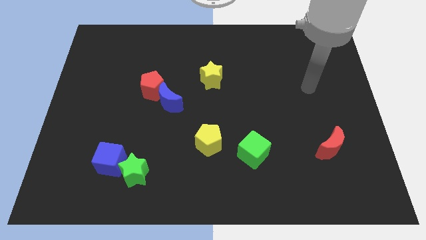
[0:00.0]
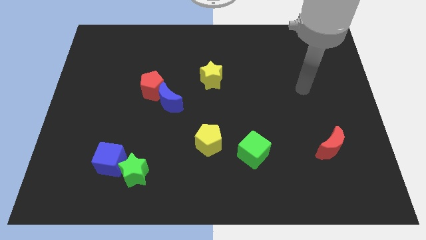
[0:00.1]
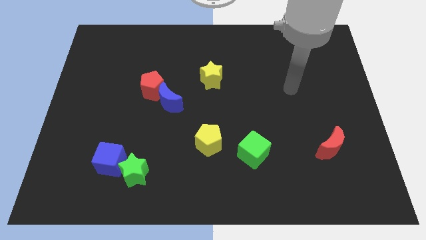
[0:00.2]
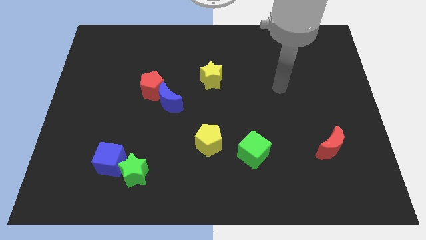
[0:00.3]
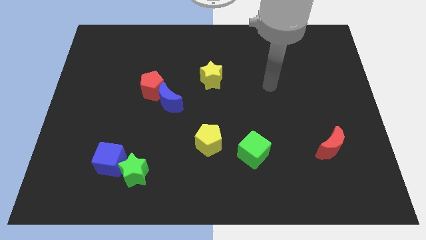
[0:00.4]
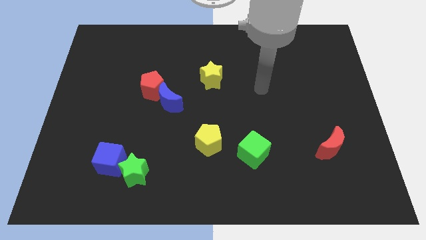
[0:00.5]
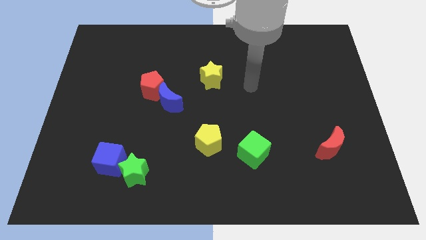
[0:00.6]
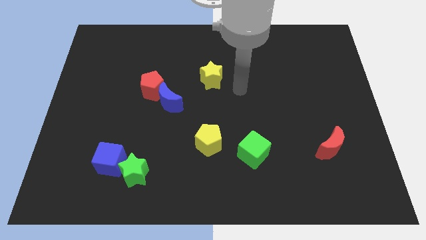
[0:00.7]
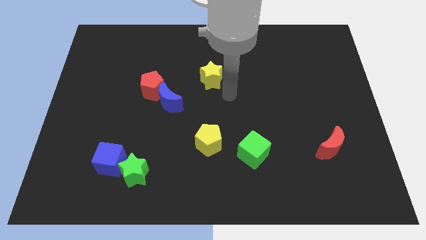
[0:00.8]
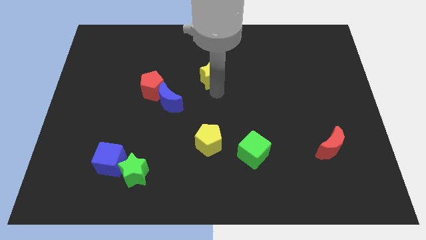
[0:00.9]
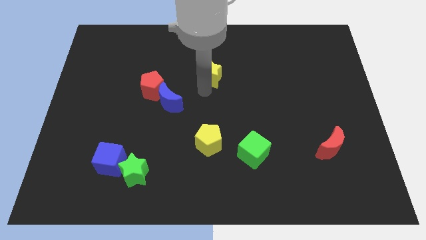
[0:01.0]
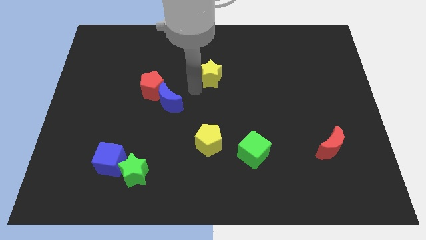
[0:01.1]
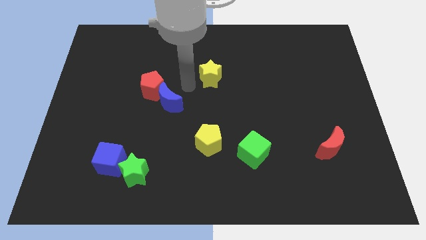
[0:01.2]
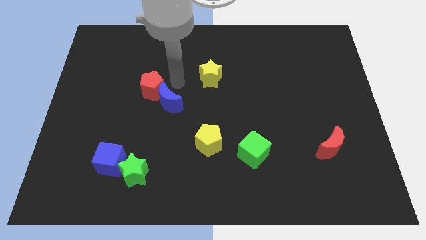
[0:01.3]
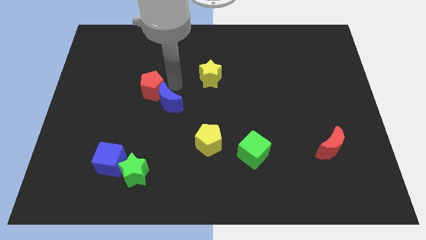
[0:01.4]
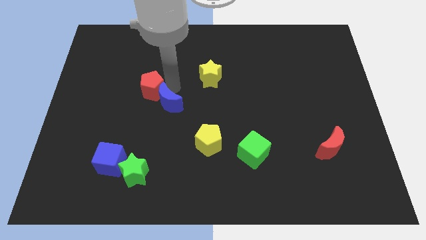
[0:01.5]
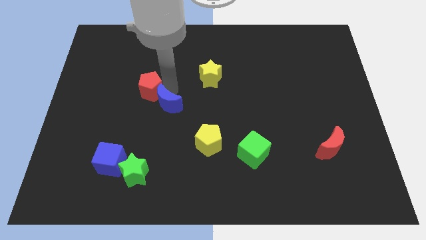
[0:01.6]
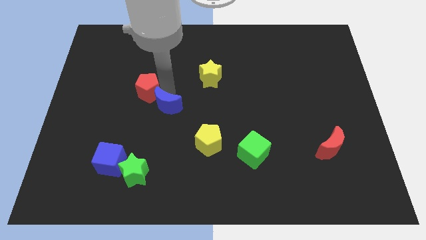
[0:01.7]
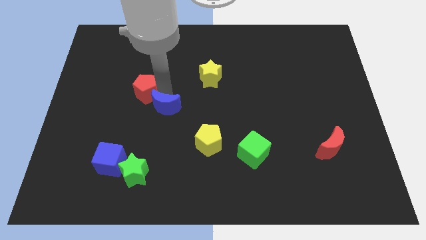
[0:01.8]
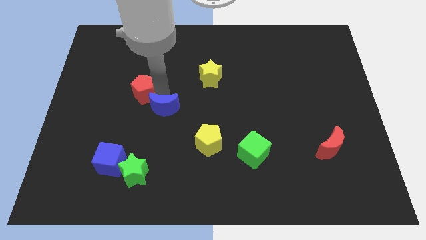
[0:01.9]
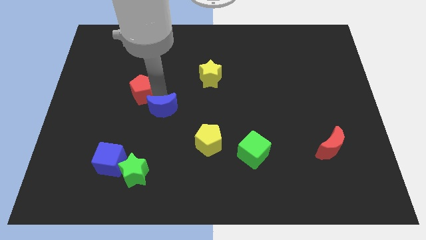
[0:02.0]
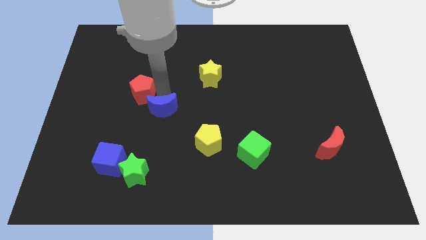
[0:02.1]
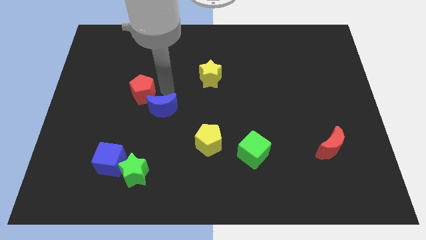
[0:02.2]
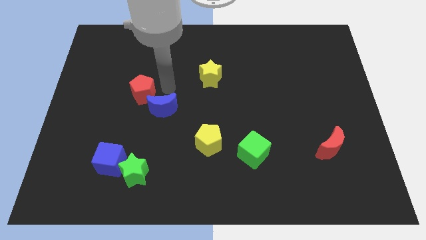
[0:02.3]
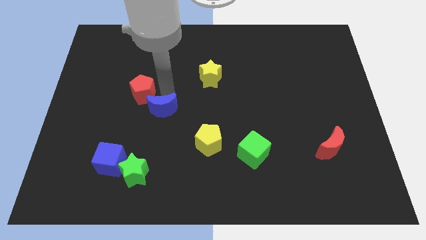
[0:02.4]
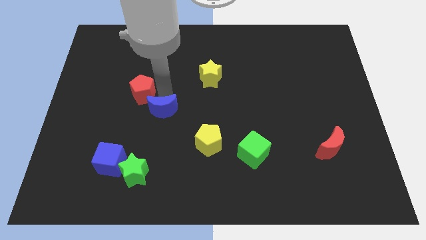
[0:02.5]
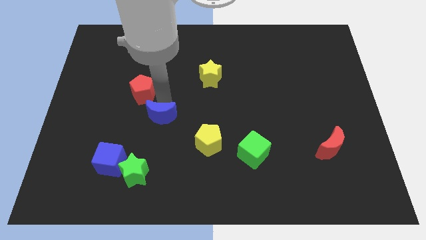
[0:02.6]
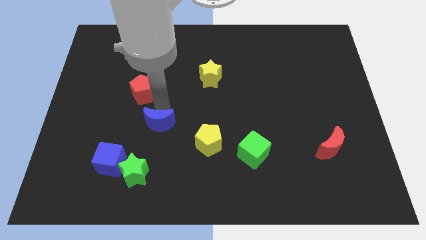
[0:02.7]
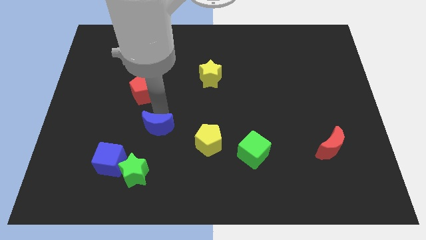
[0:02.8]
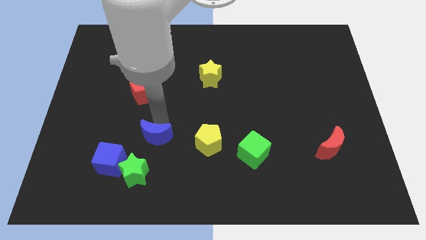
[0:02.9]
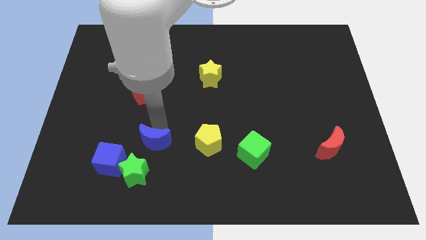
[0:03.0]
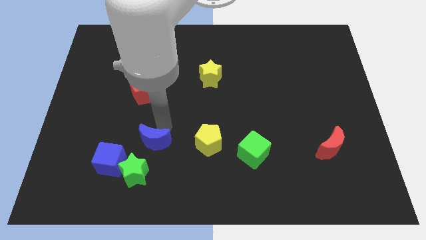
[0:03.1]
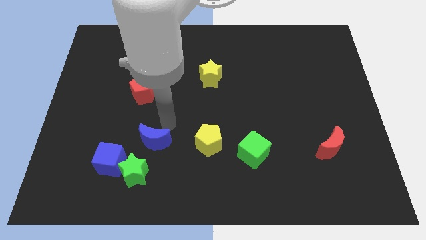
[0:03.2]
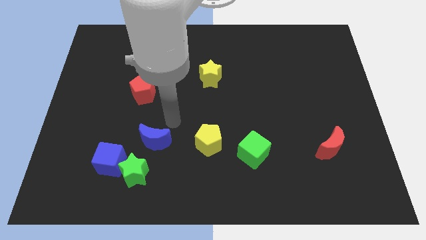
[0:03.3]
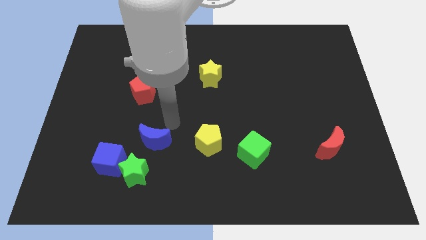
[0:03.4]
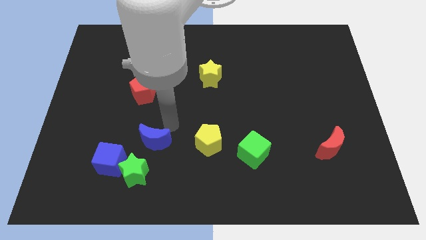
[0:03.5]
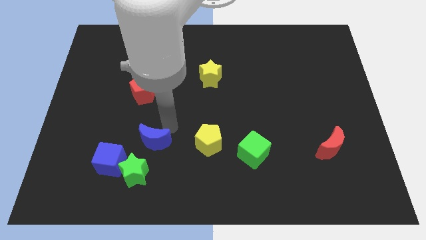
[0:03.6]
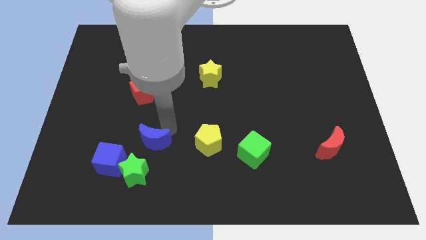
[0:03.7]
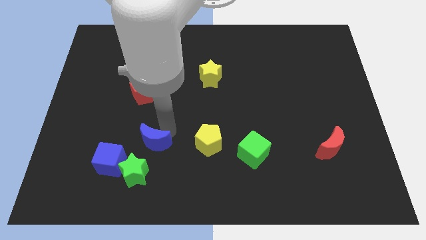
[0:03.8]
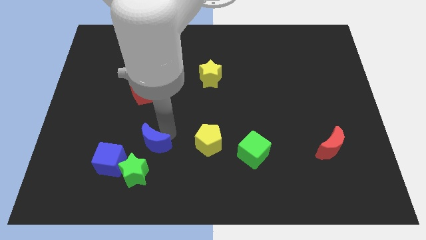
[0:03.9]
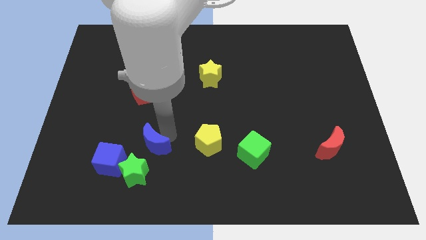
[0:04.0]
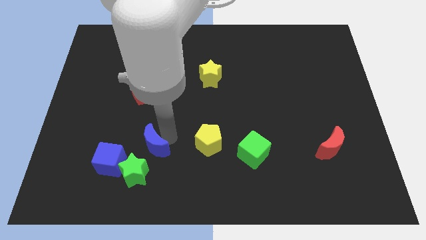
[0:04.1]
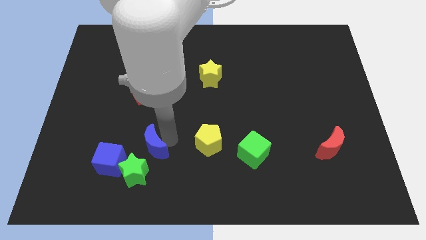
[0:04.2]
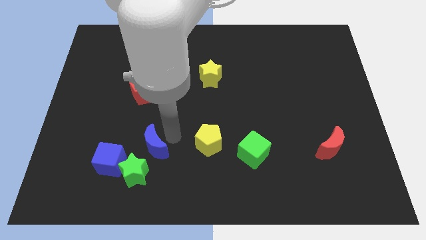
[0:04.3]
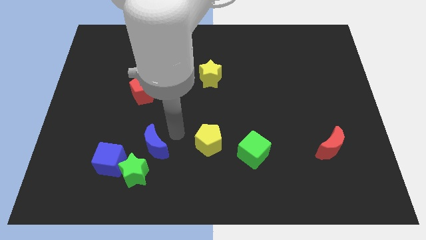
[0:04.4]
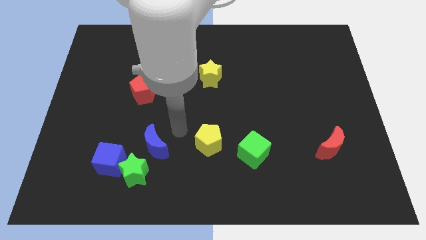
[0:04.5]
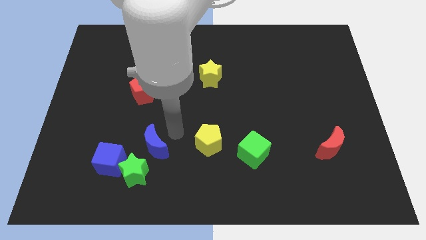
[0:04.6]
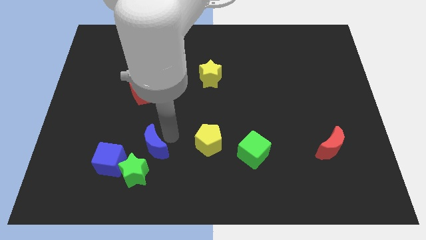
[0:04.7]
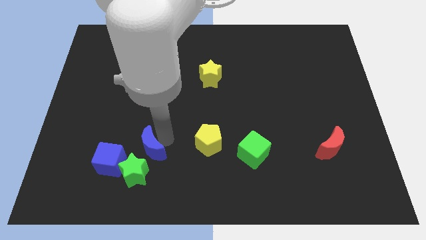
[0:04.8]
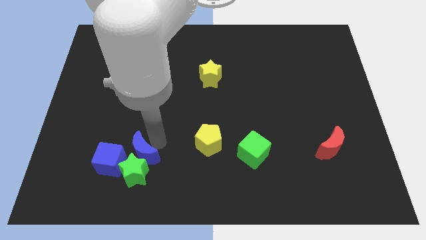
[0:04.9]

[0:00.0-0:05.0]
push the blue moon towards the green star

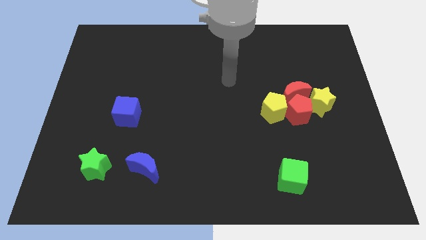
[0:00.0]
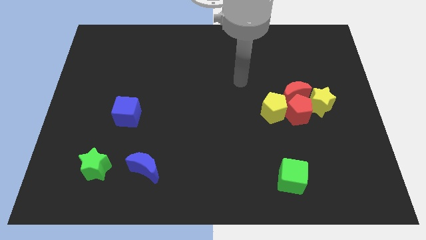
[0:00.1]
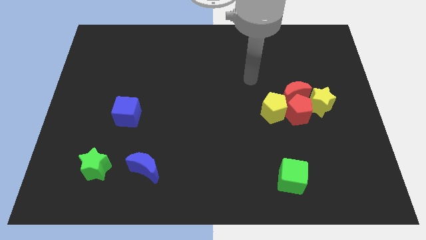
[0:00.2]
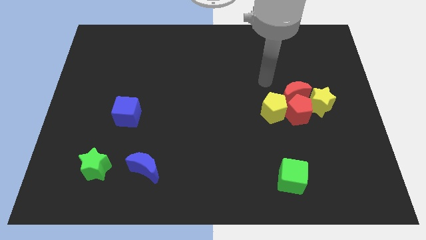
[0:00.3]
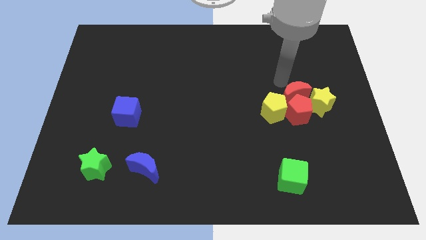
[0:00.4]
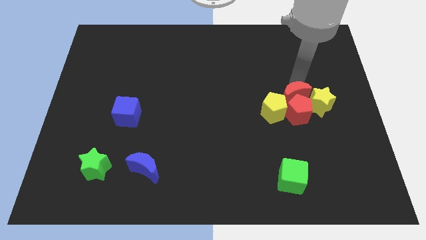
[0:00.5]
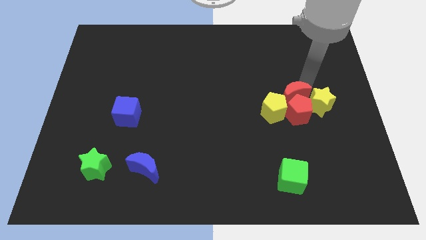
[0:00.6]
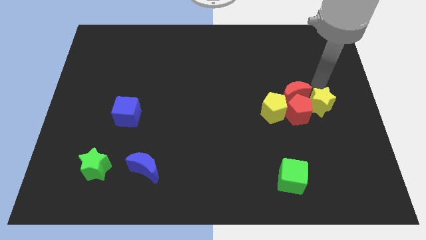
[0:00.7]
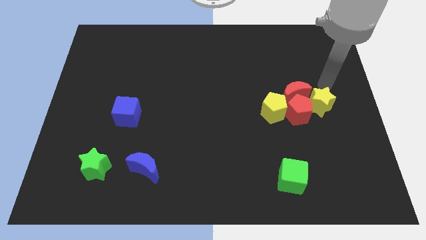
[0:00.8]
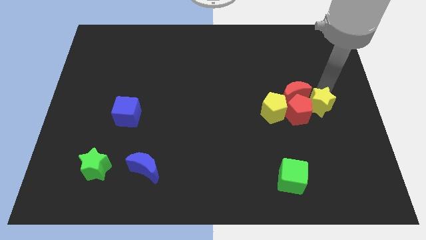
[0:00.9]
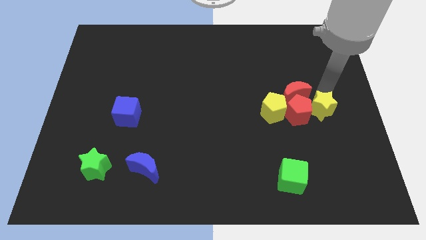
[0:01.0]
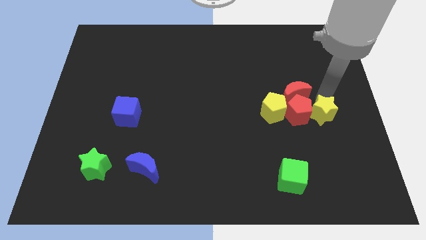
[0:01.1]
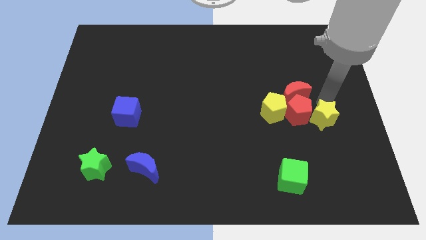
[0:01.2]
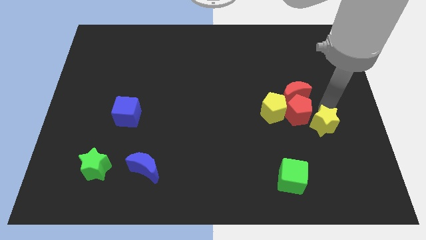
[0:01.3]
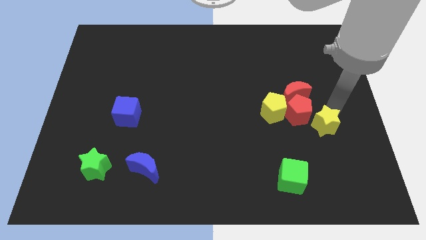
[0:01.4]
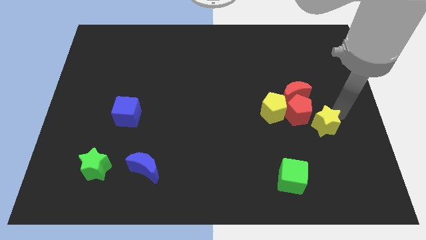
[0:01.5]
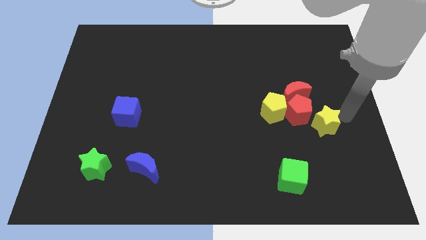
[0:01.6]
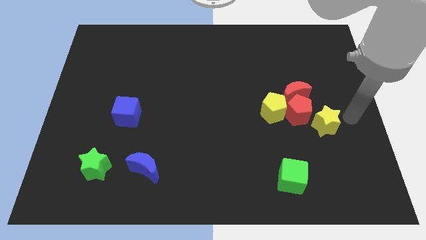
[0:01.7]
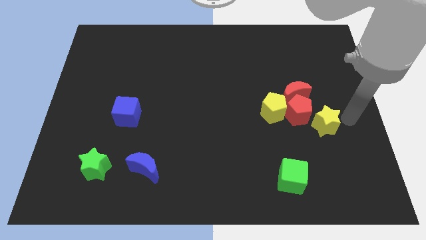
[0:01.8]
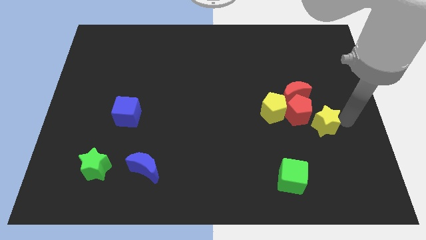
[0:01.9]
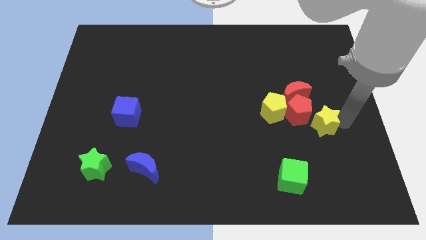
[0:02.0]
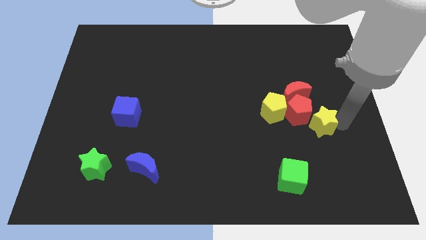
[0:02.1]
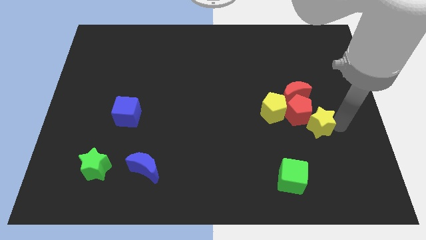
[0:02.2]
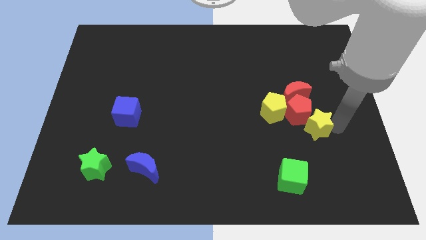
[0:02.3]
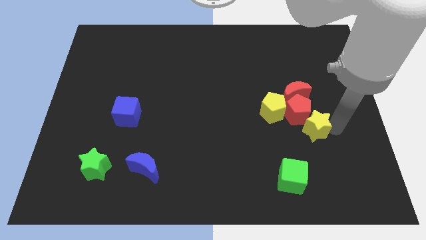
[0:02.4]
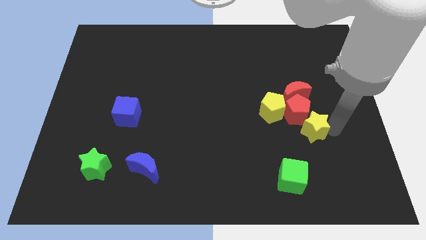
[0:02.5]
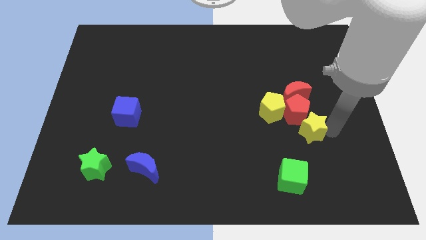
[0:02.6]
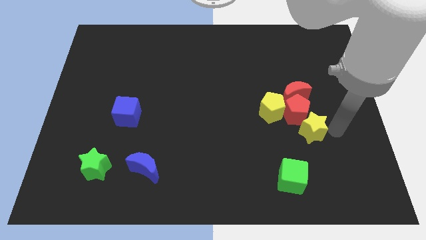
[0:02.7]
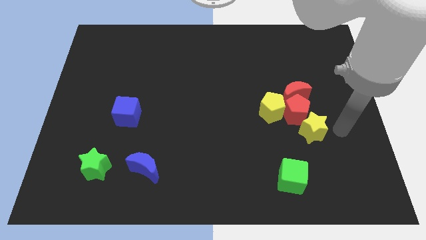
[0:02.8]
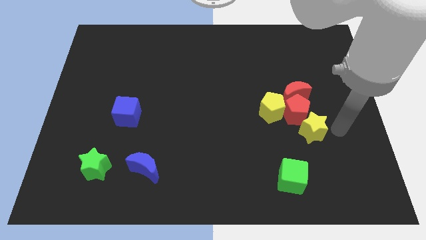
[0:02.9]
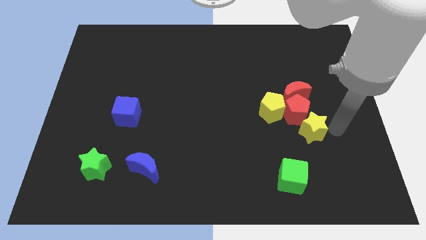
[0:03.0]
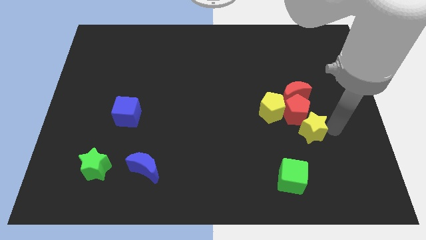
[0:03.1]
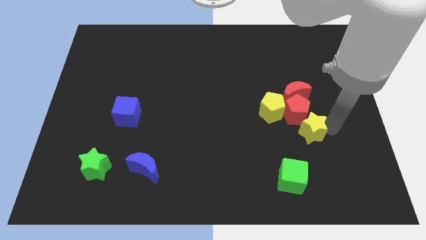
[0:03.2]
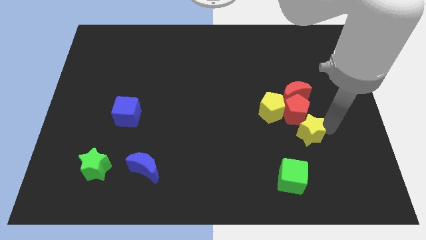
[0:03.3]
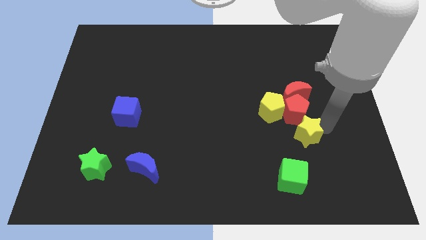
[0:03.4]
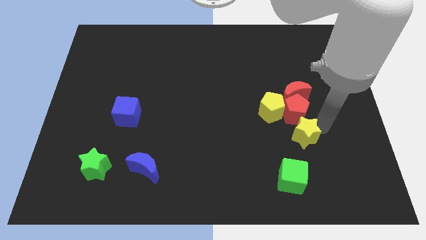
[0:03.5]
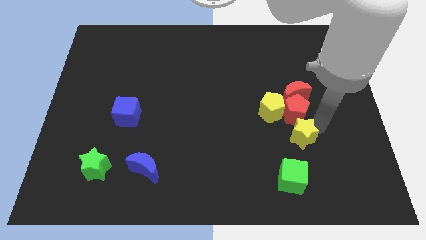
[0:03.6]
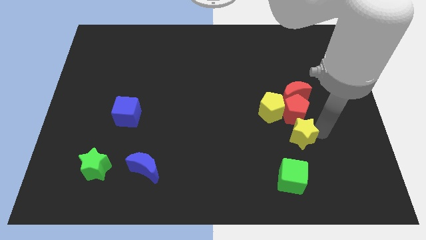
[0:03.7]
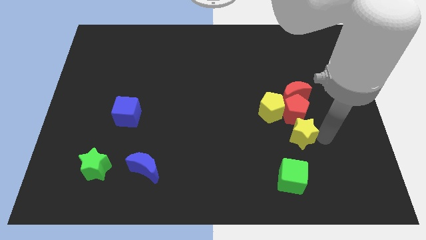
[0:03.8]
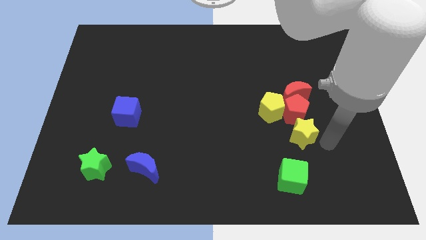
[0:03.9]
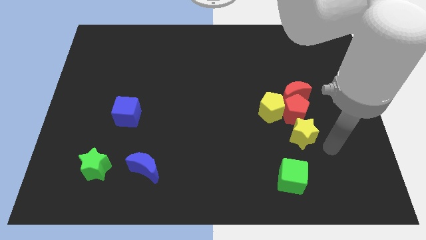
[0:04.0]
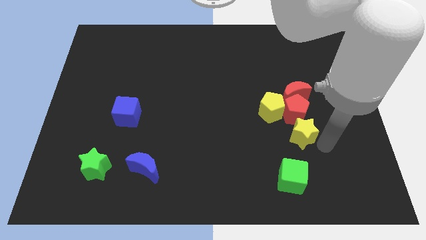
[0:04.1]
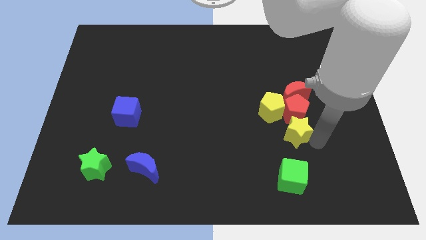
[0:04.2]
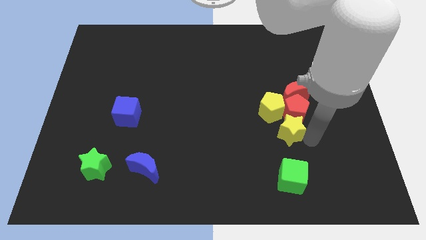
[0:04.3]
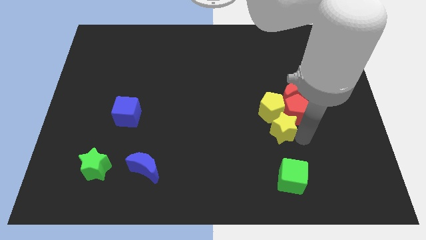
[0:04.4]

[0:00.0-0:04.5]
put the yellow star next to the yellow pentagon
